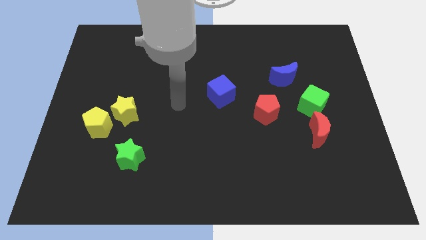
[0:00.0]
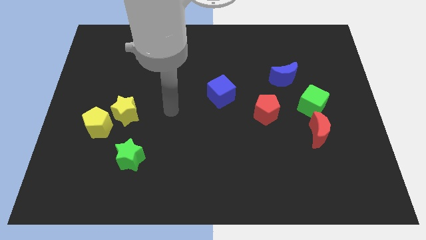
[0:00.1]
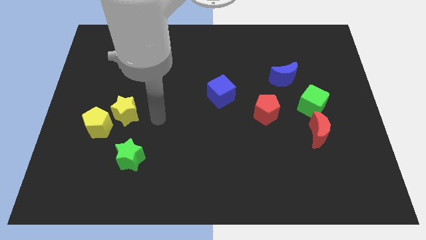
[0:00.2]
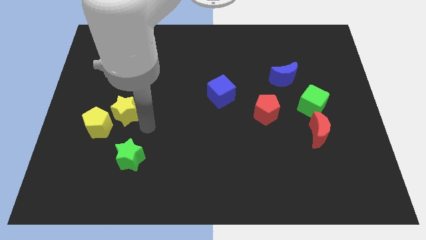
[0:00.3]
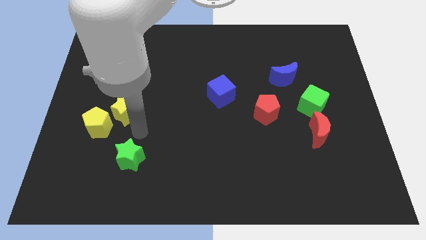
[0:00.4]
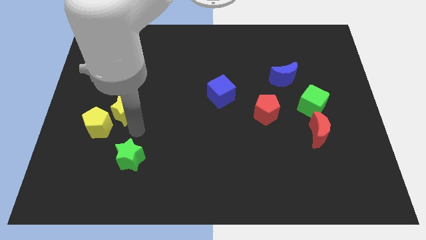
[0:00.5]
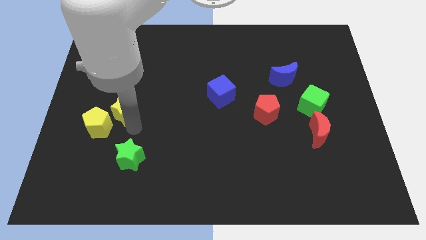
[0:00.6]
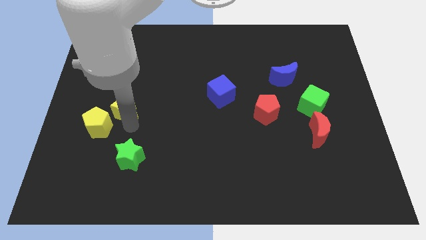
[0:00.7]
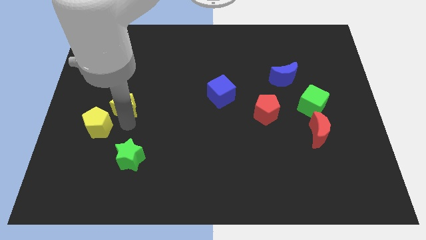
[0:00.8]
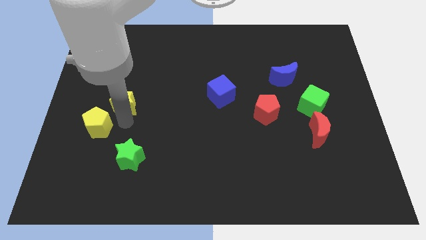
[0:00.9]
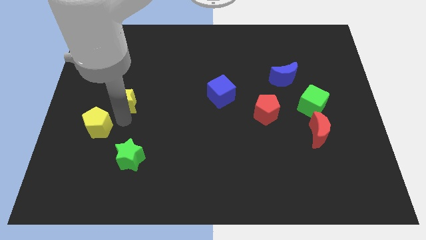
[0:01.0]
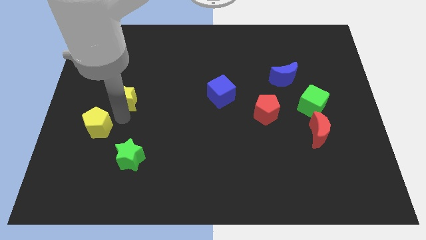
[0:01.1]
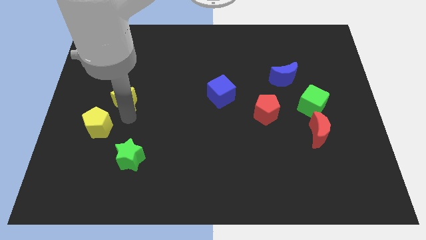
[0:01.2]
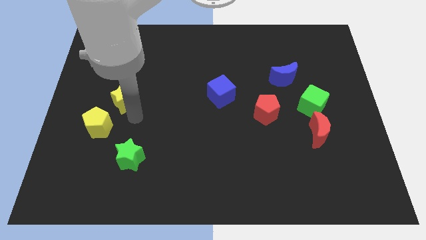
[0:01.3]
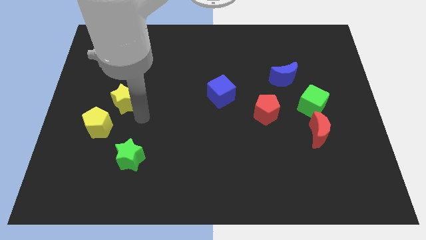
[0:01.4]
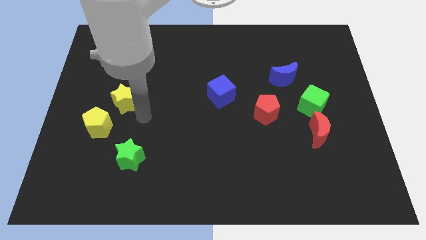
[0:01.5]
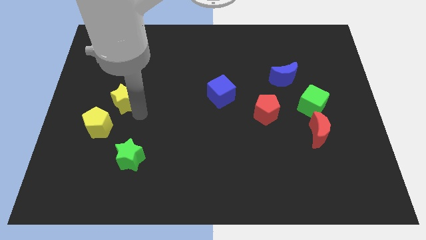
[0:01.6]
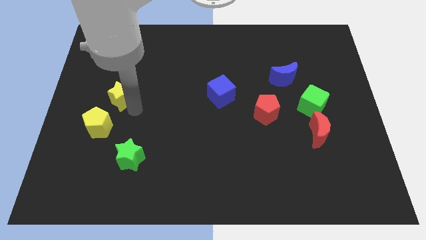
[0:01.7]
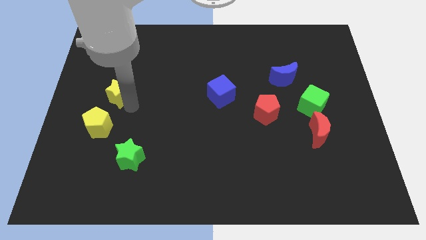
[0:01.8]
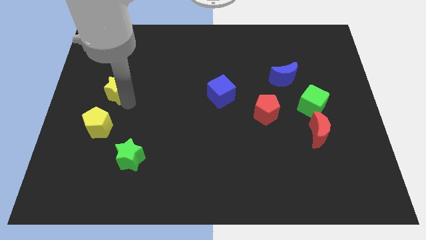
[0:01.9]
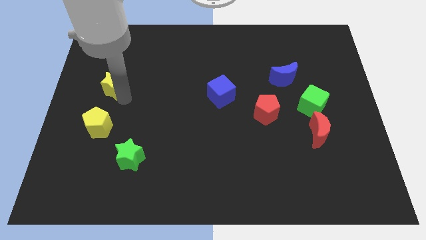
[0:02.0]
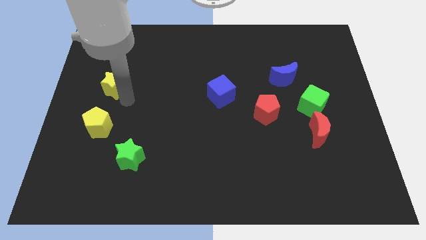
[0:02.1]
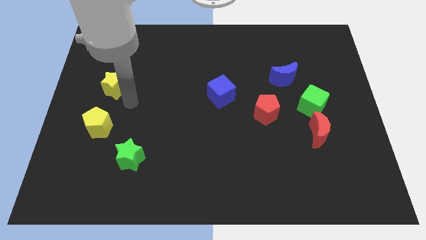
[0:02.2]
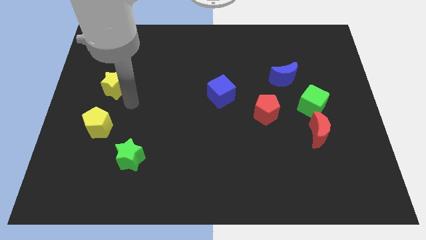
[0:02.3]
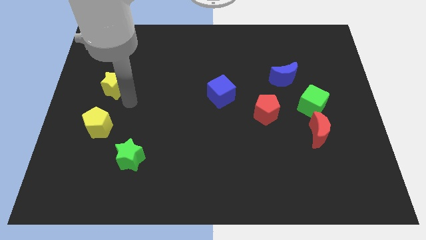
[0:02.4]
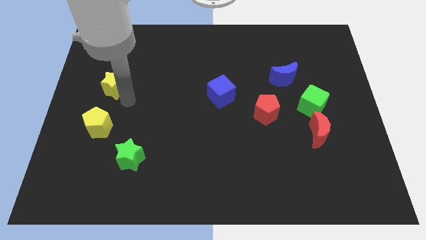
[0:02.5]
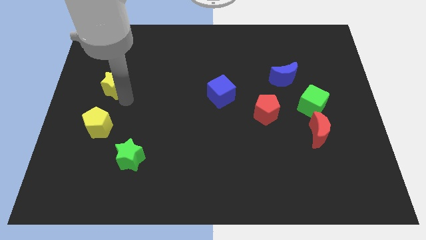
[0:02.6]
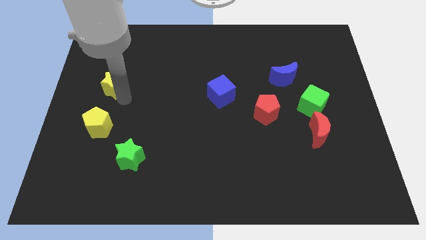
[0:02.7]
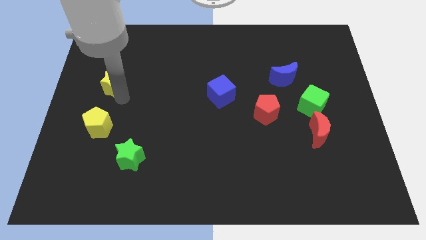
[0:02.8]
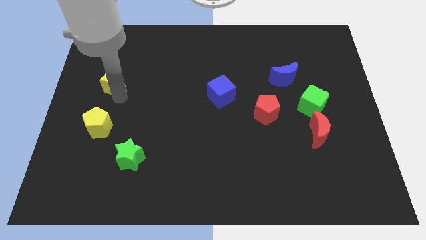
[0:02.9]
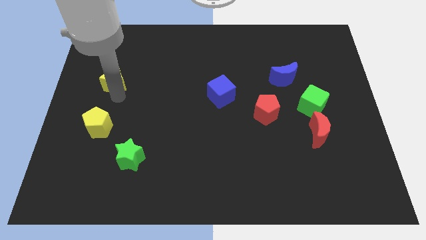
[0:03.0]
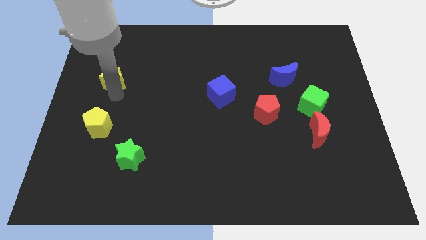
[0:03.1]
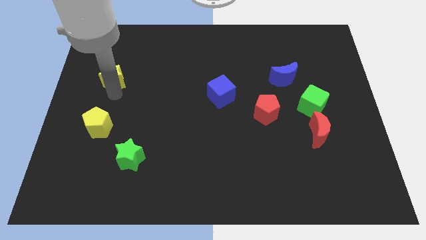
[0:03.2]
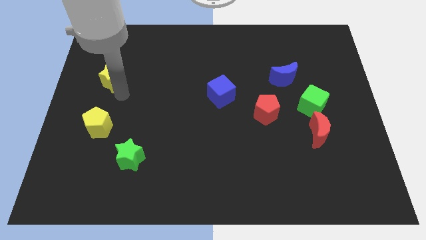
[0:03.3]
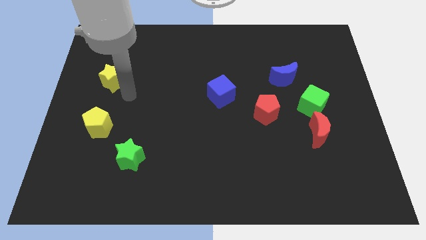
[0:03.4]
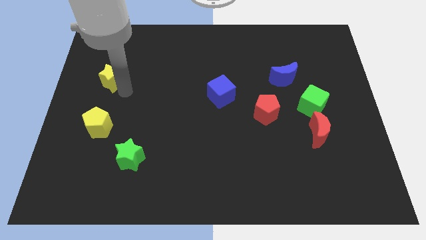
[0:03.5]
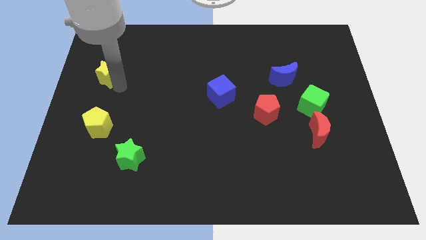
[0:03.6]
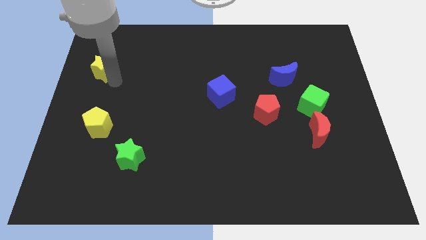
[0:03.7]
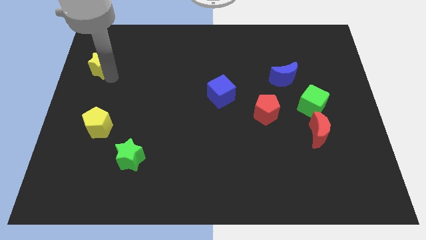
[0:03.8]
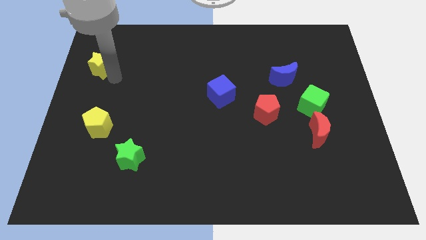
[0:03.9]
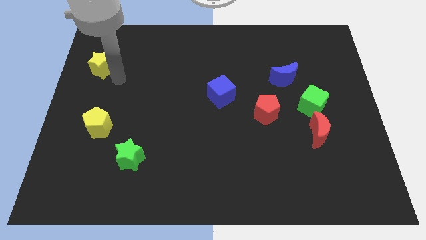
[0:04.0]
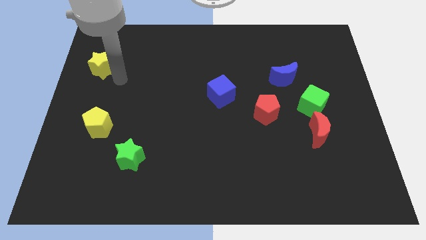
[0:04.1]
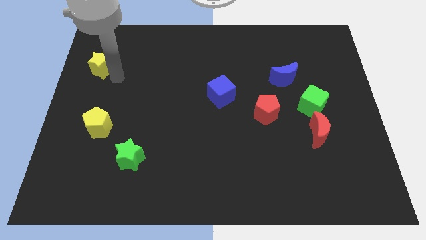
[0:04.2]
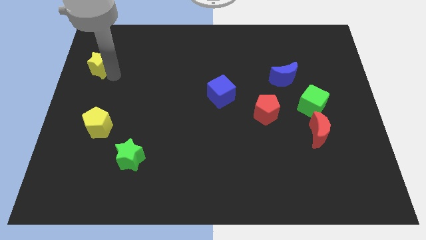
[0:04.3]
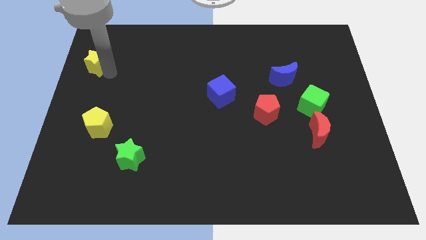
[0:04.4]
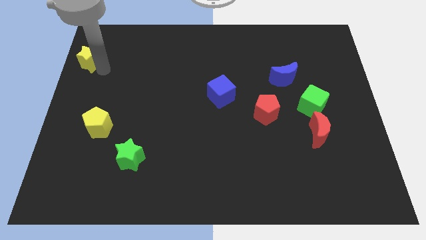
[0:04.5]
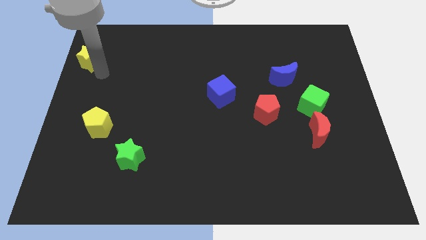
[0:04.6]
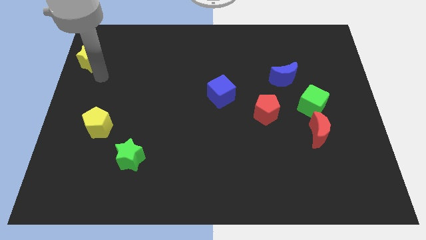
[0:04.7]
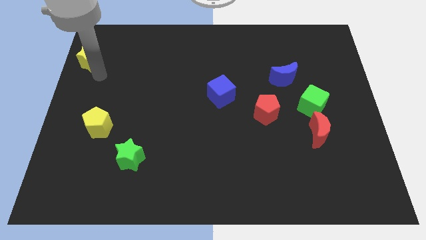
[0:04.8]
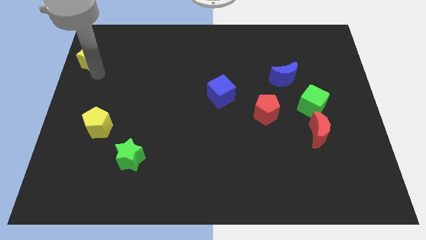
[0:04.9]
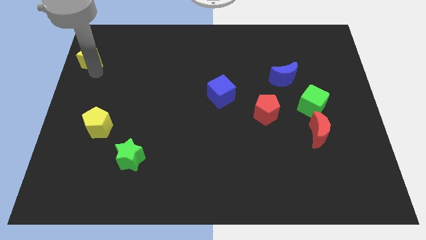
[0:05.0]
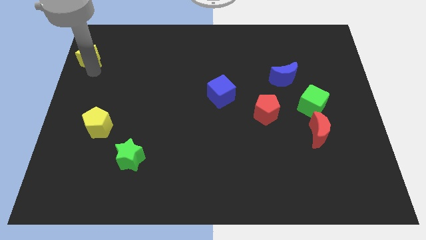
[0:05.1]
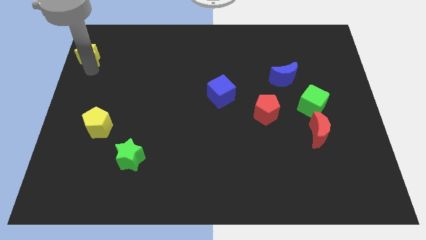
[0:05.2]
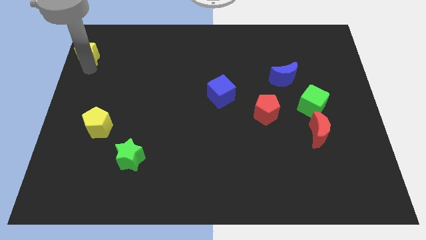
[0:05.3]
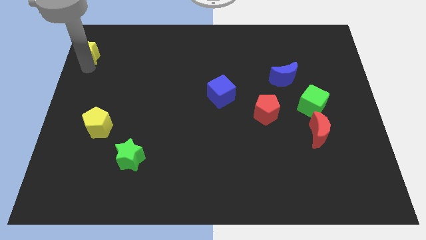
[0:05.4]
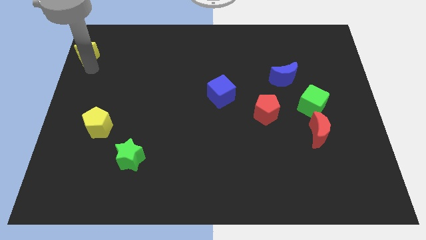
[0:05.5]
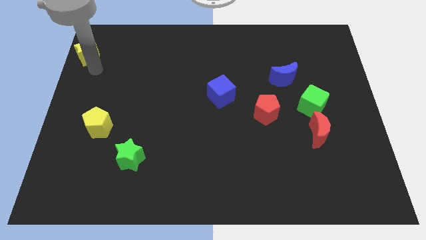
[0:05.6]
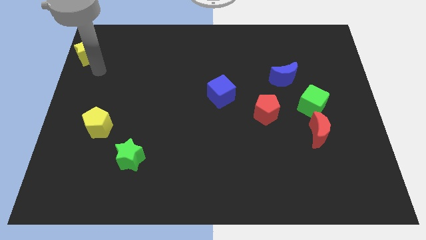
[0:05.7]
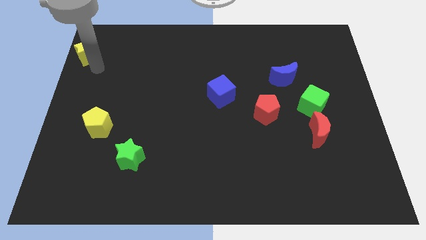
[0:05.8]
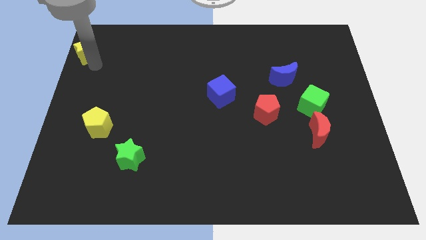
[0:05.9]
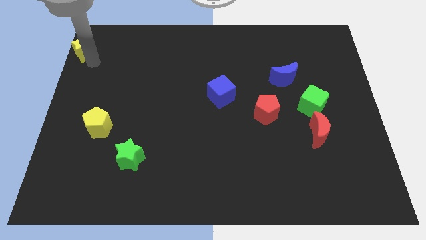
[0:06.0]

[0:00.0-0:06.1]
put the yellow star to the top left

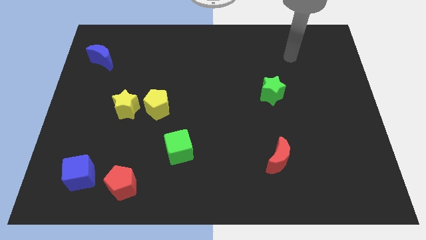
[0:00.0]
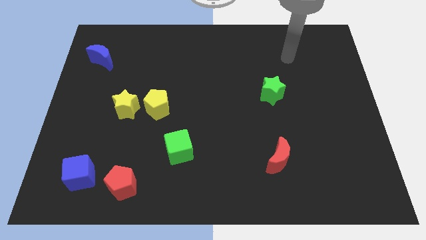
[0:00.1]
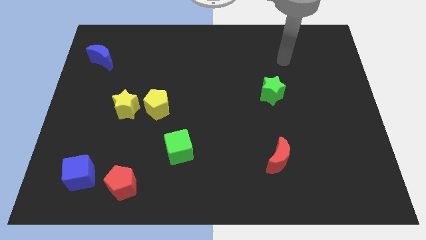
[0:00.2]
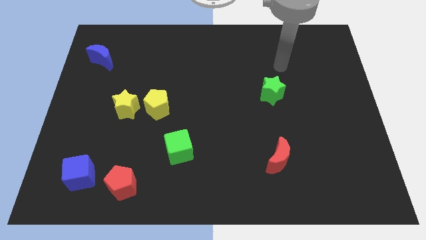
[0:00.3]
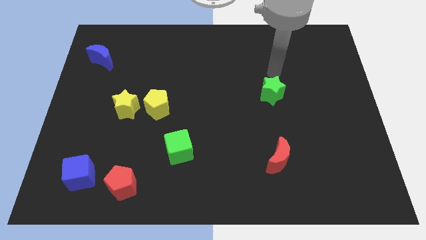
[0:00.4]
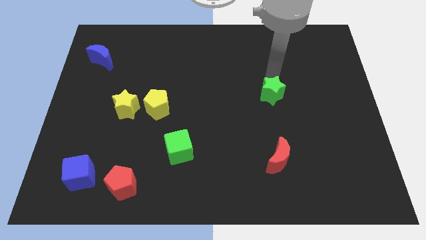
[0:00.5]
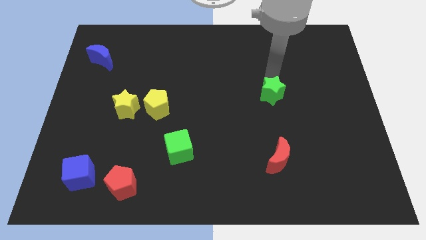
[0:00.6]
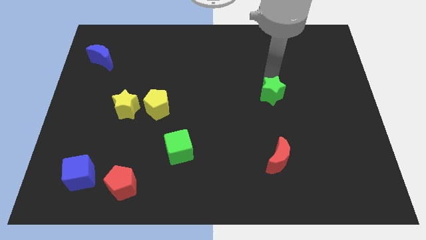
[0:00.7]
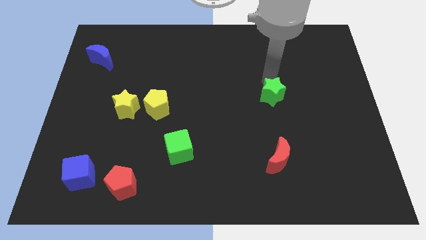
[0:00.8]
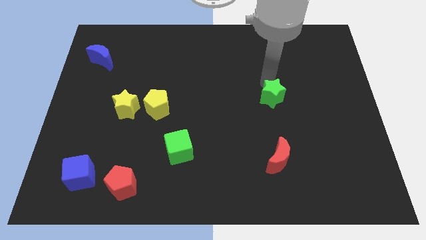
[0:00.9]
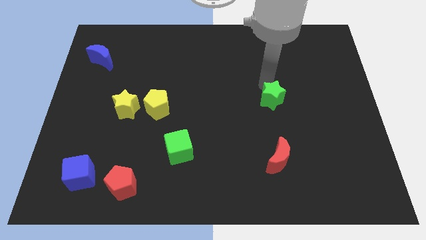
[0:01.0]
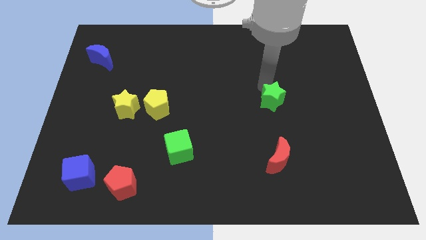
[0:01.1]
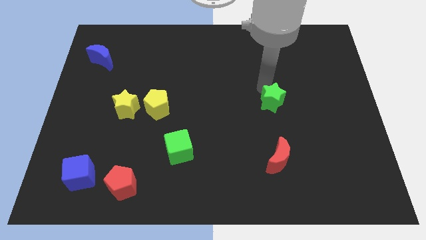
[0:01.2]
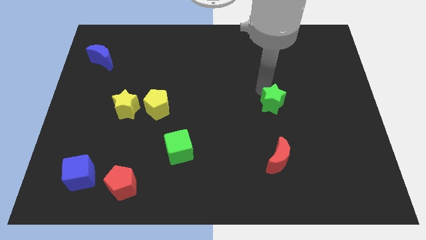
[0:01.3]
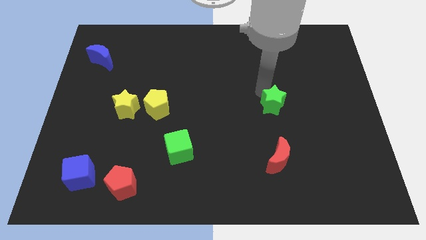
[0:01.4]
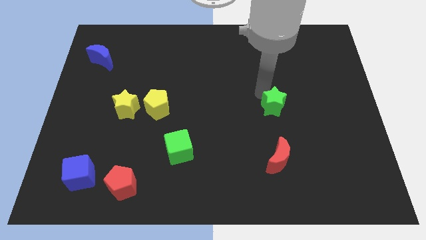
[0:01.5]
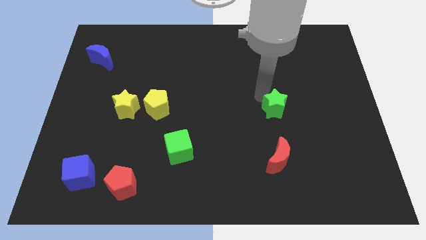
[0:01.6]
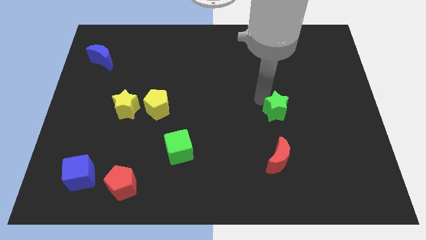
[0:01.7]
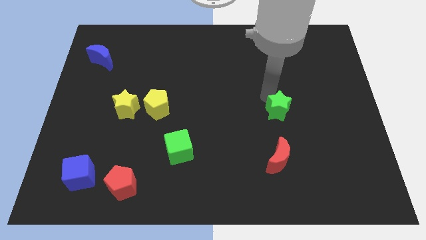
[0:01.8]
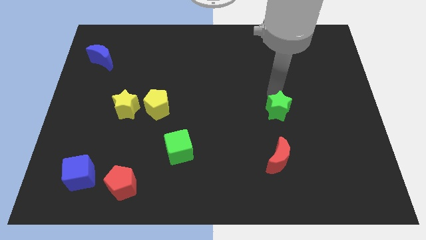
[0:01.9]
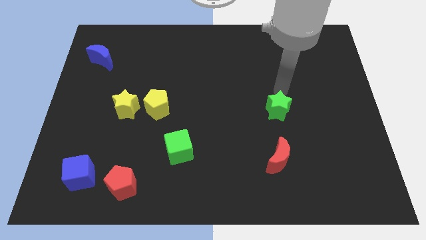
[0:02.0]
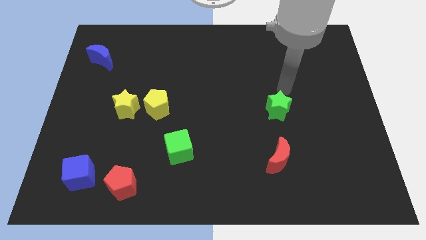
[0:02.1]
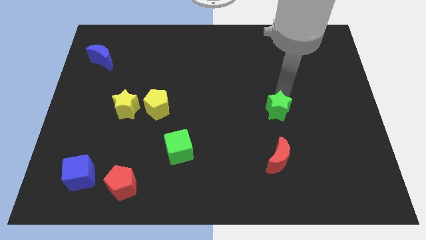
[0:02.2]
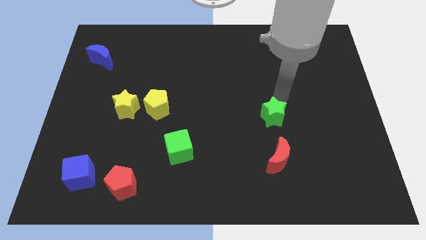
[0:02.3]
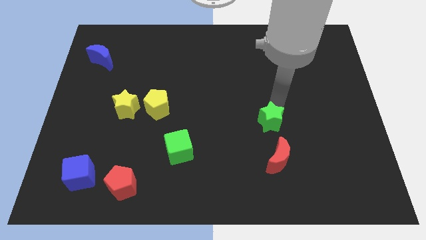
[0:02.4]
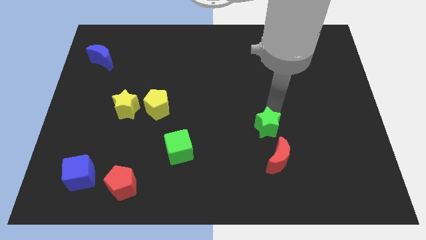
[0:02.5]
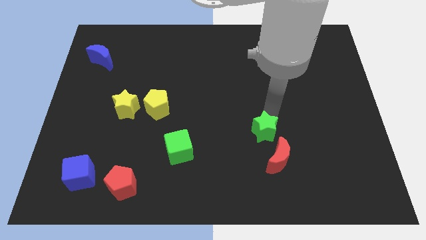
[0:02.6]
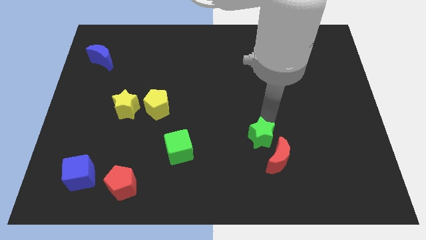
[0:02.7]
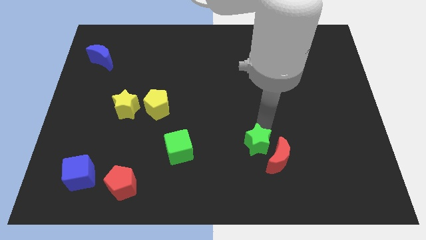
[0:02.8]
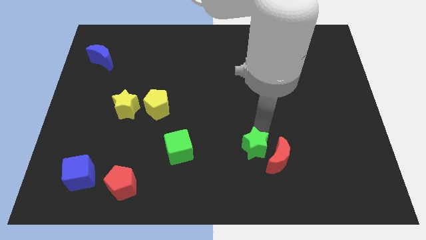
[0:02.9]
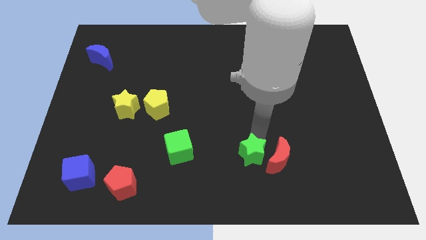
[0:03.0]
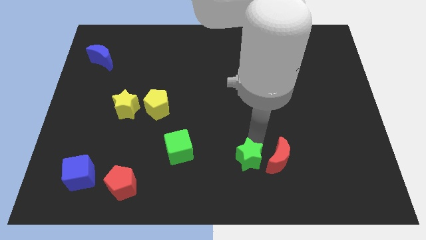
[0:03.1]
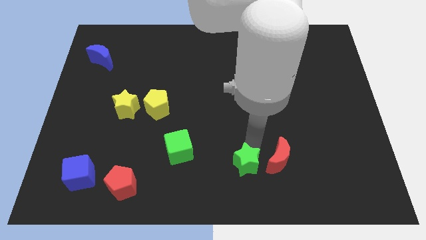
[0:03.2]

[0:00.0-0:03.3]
move the green star to the bottom
